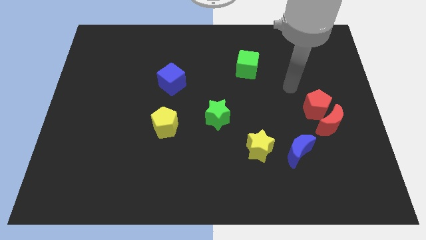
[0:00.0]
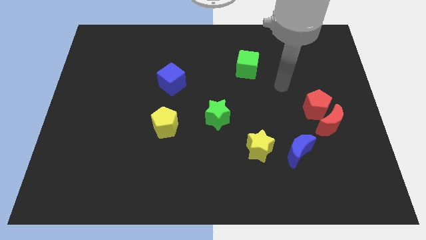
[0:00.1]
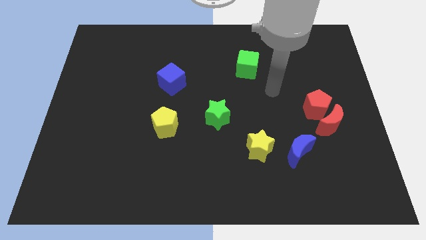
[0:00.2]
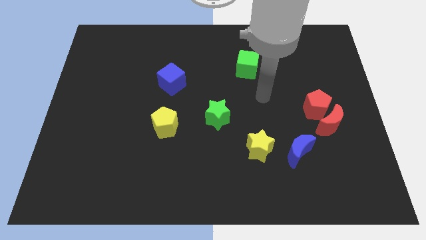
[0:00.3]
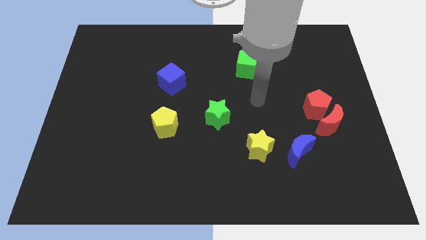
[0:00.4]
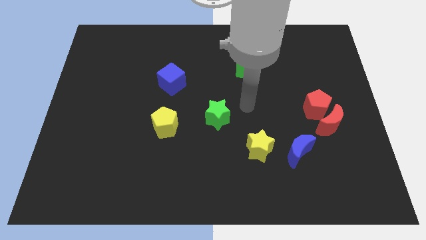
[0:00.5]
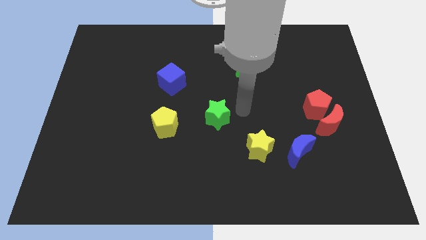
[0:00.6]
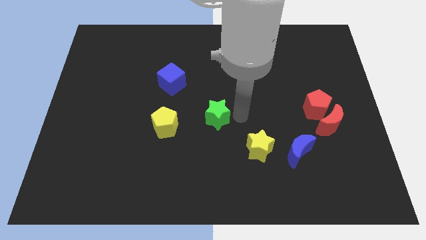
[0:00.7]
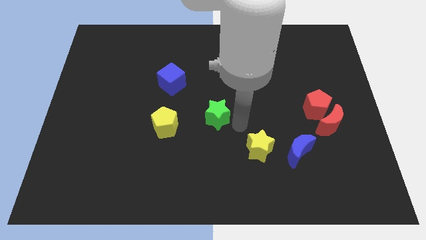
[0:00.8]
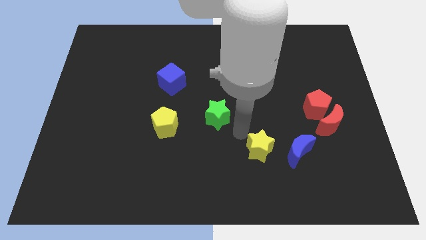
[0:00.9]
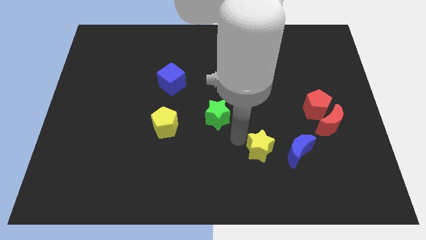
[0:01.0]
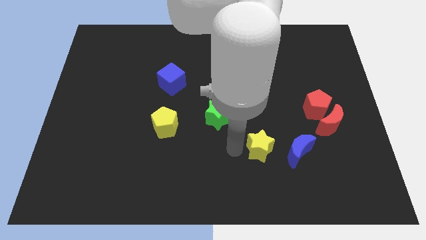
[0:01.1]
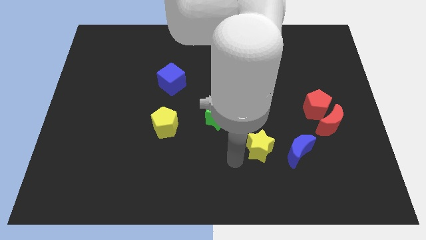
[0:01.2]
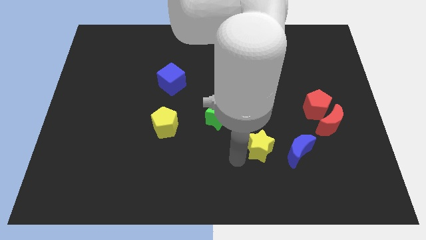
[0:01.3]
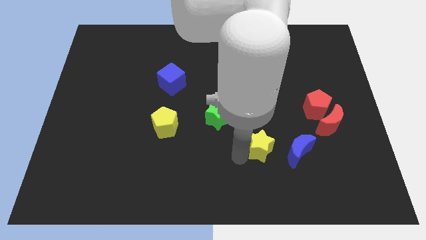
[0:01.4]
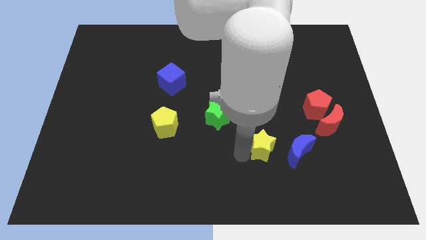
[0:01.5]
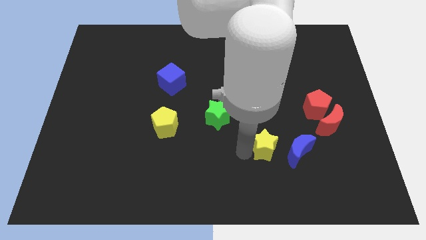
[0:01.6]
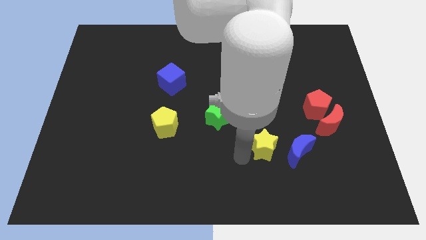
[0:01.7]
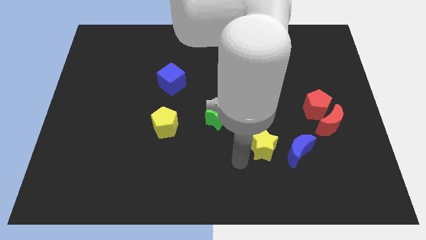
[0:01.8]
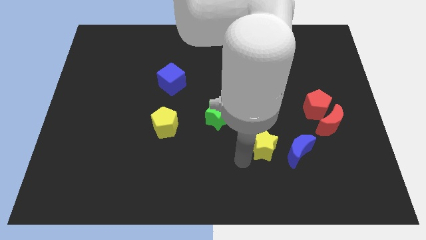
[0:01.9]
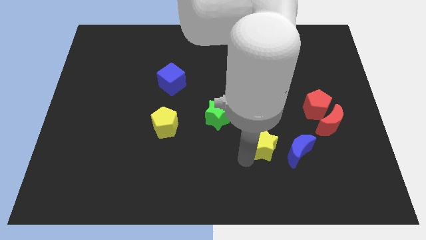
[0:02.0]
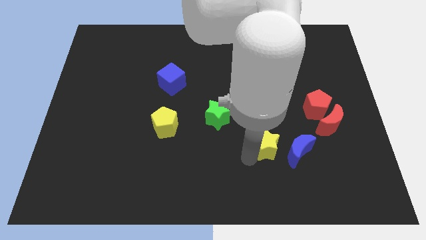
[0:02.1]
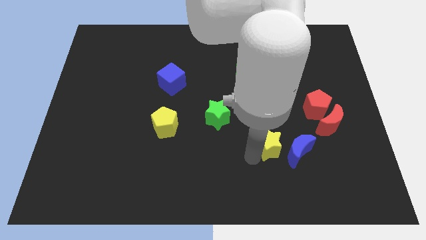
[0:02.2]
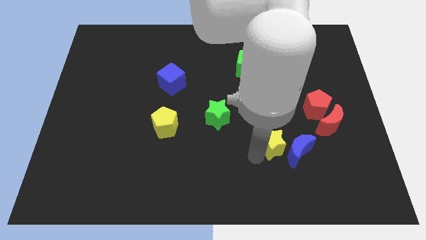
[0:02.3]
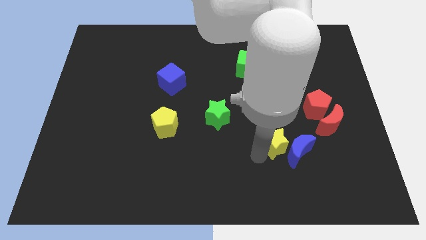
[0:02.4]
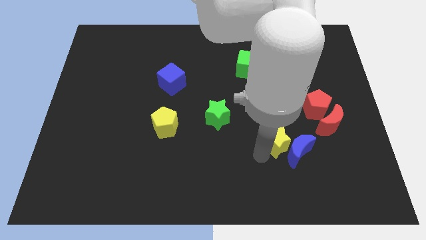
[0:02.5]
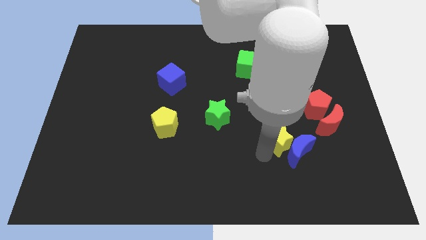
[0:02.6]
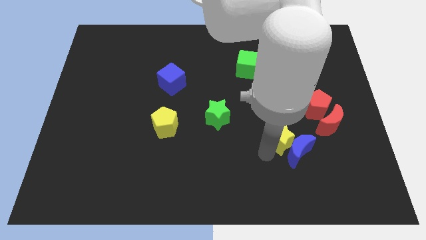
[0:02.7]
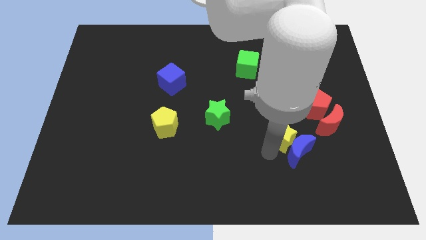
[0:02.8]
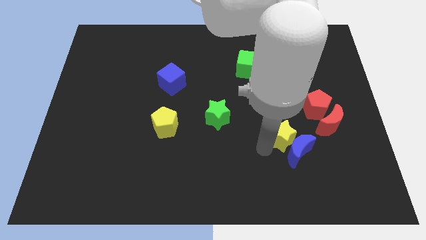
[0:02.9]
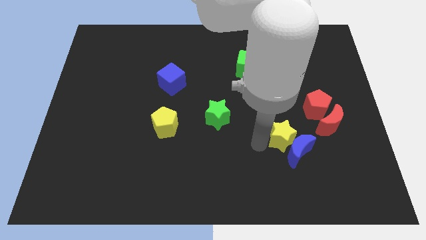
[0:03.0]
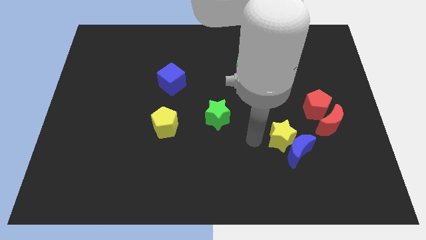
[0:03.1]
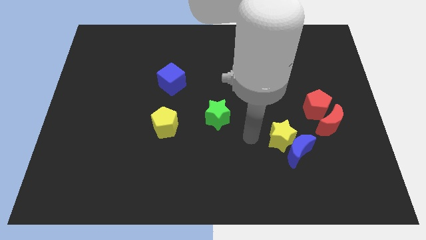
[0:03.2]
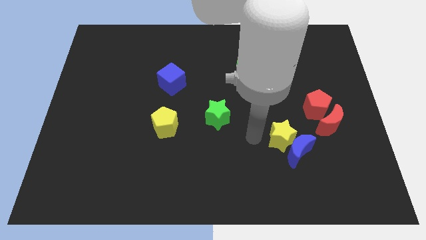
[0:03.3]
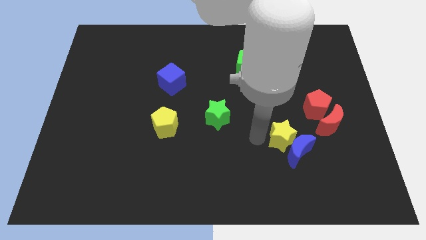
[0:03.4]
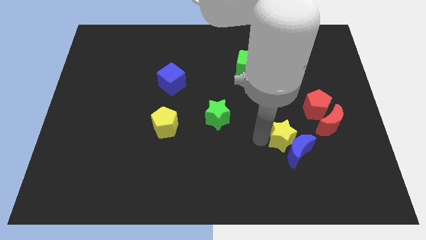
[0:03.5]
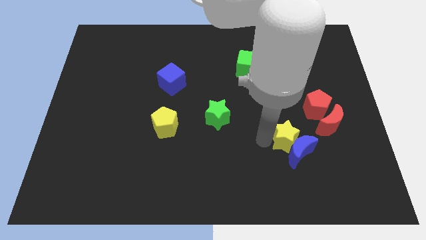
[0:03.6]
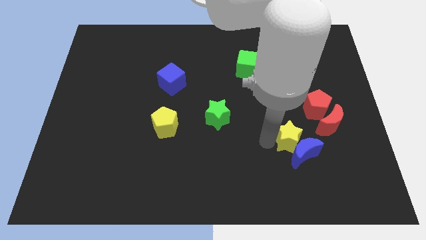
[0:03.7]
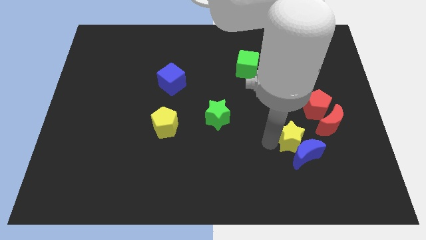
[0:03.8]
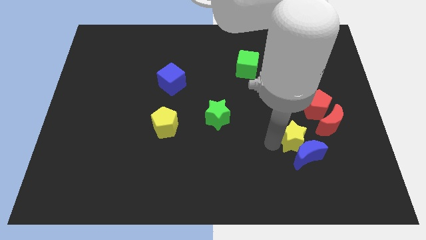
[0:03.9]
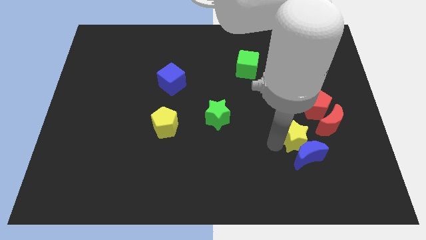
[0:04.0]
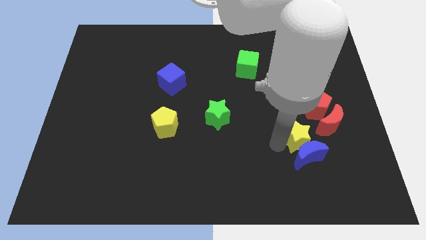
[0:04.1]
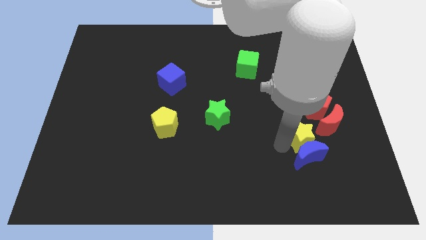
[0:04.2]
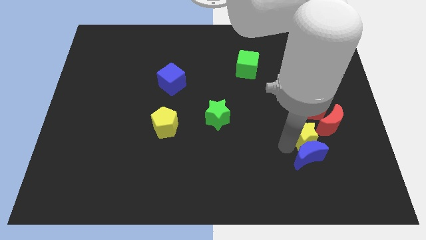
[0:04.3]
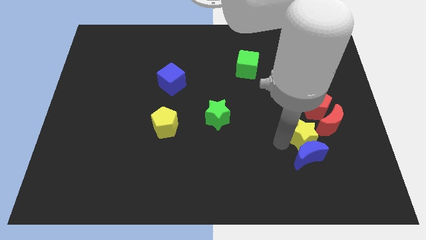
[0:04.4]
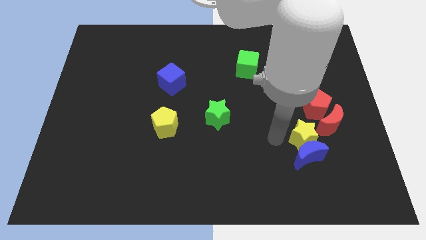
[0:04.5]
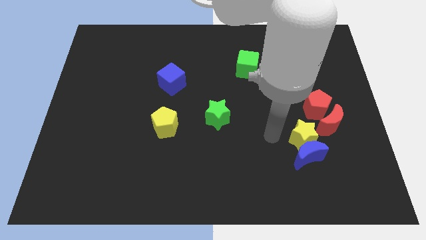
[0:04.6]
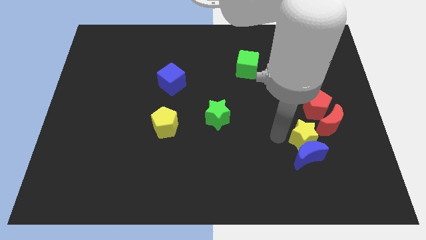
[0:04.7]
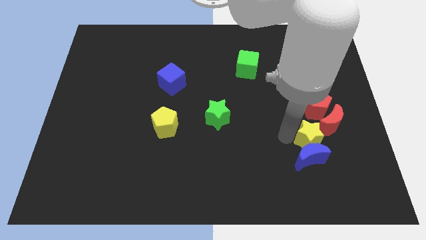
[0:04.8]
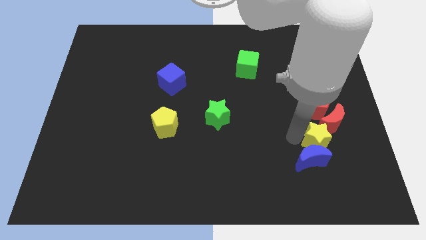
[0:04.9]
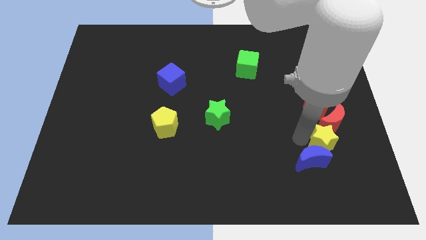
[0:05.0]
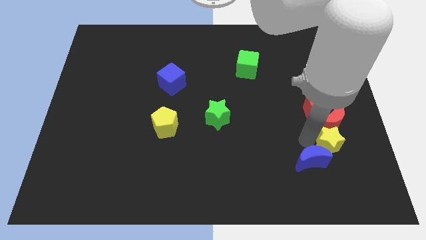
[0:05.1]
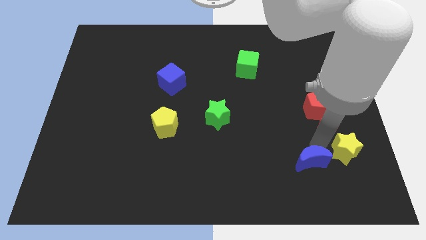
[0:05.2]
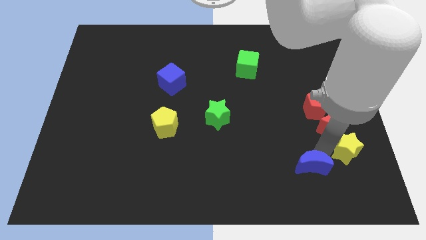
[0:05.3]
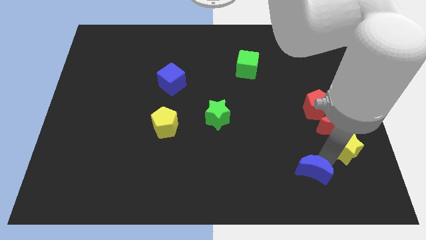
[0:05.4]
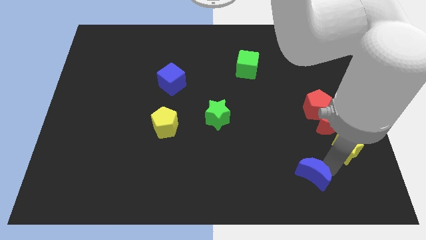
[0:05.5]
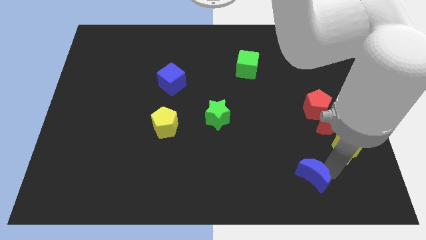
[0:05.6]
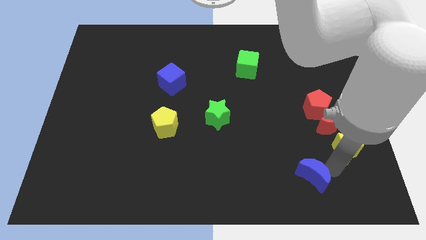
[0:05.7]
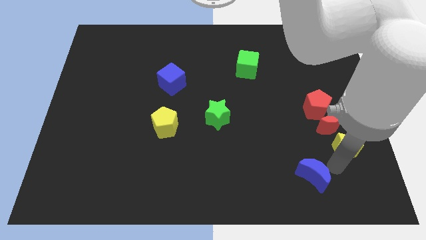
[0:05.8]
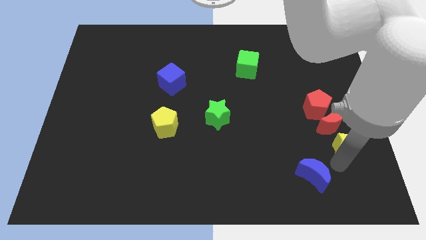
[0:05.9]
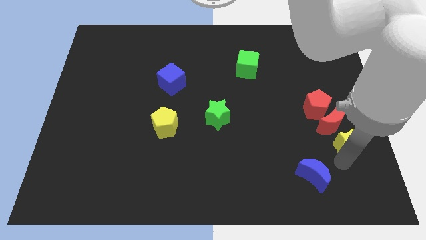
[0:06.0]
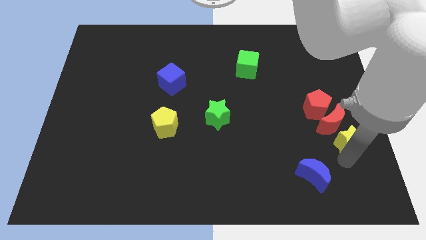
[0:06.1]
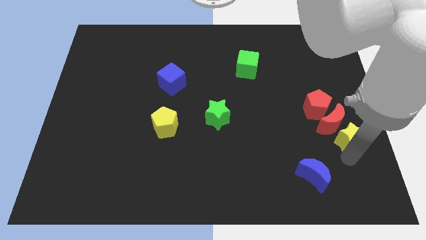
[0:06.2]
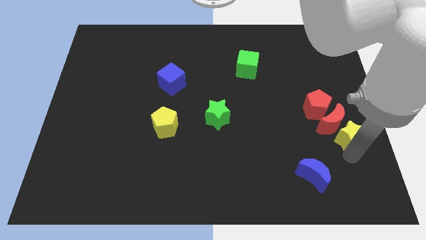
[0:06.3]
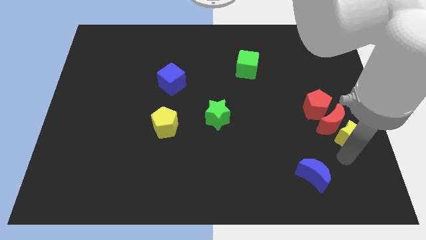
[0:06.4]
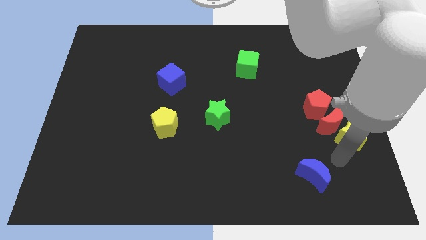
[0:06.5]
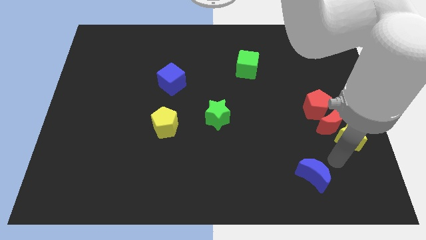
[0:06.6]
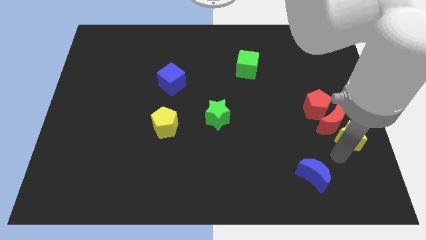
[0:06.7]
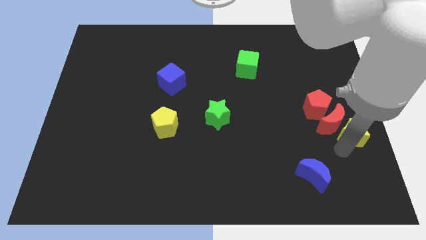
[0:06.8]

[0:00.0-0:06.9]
put the yellow star to the right side of the board
